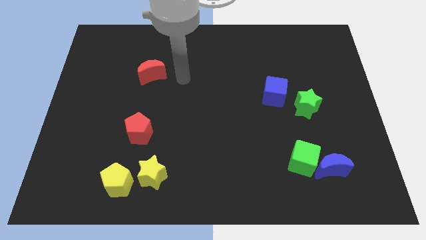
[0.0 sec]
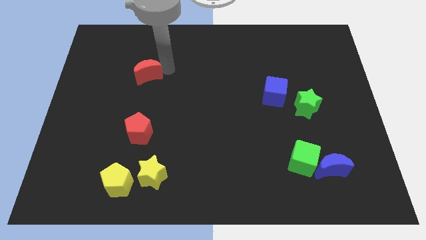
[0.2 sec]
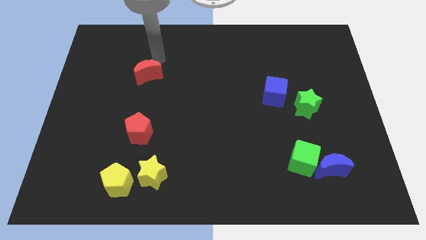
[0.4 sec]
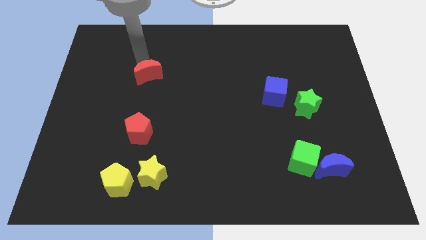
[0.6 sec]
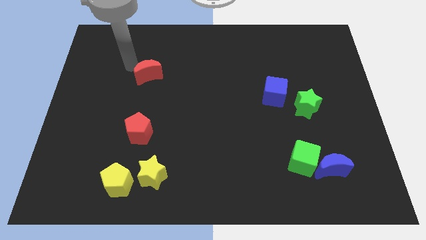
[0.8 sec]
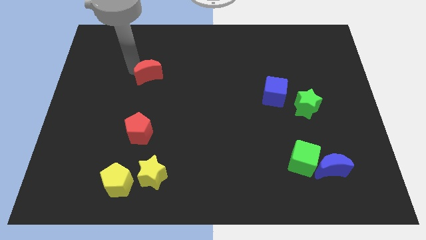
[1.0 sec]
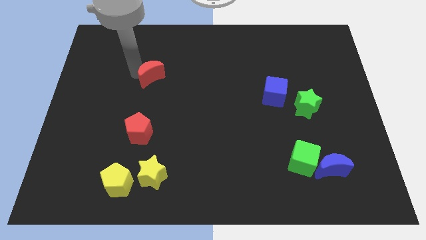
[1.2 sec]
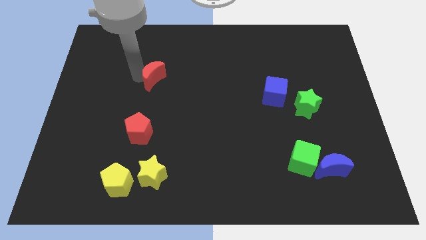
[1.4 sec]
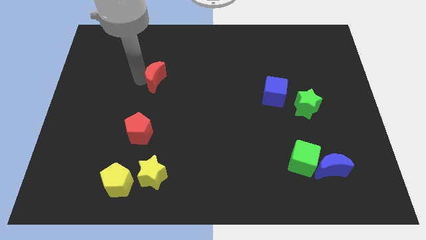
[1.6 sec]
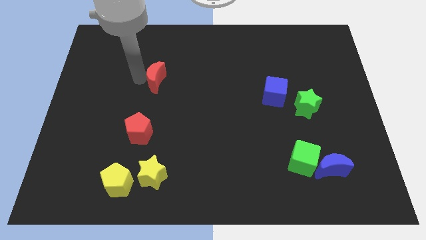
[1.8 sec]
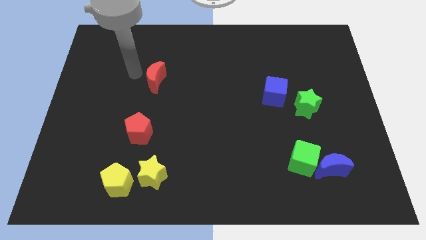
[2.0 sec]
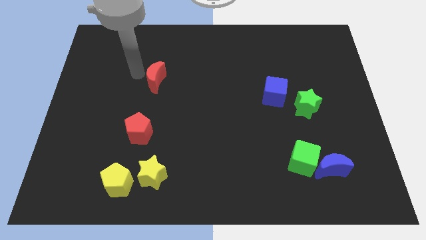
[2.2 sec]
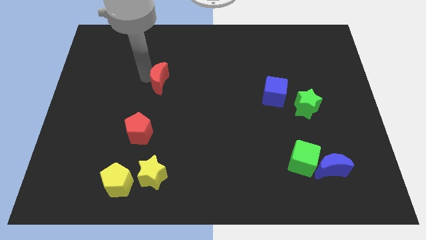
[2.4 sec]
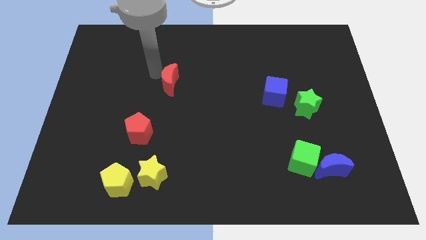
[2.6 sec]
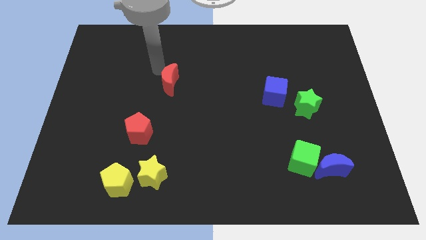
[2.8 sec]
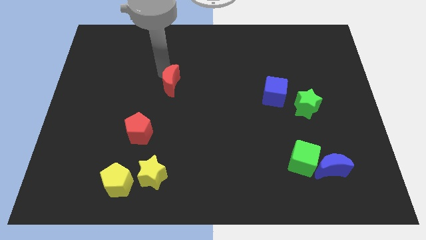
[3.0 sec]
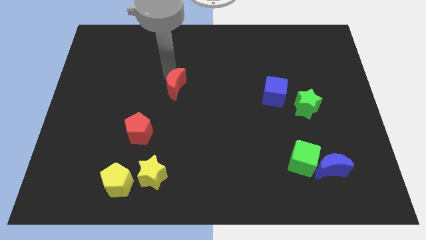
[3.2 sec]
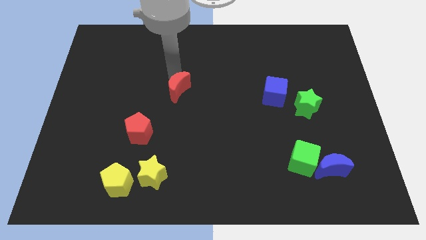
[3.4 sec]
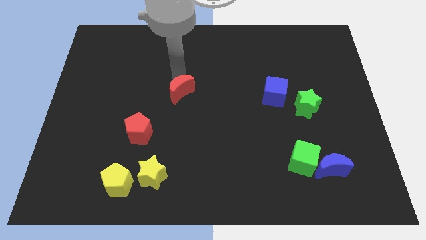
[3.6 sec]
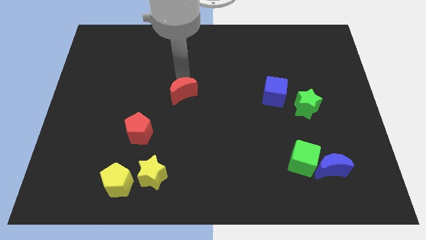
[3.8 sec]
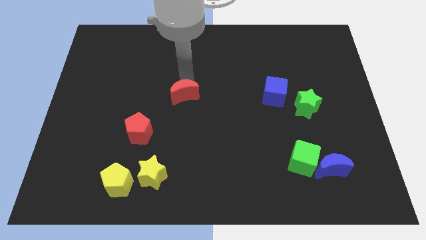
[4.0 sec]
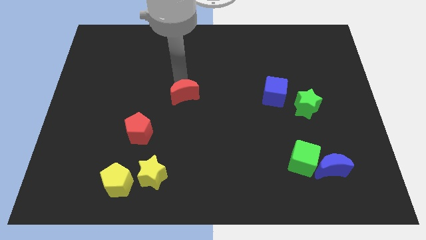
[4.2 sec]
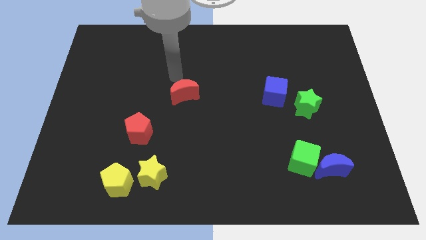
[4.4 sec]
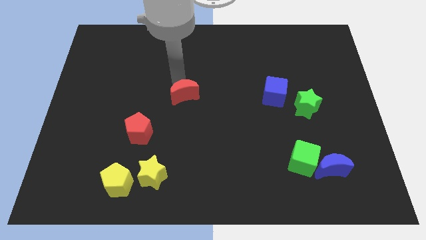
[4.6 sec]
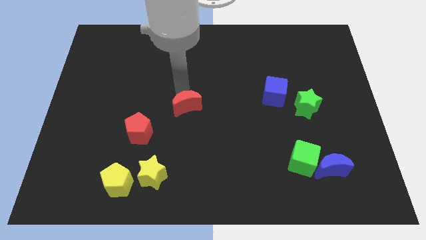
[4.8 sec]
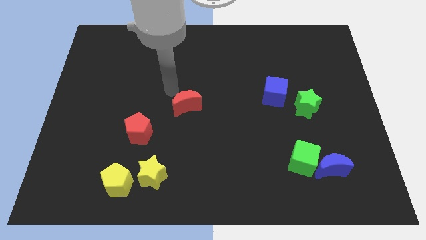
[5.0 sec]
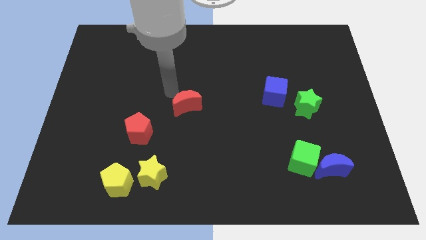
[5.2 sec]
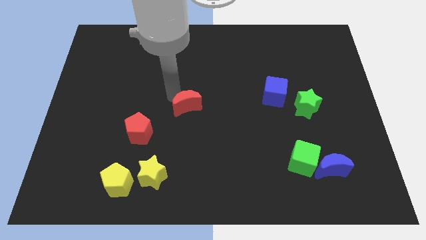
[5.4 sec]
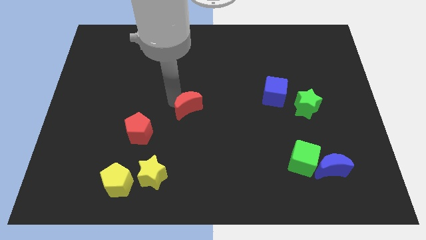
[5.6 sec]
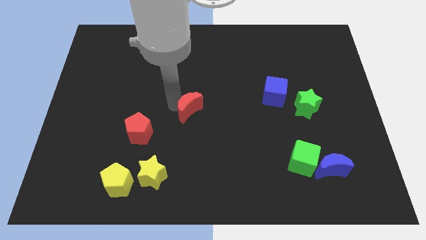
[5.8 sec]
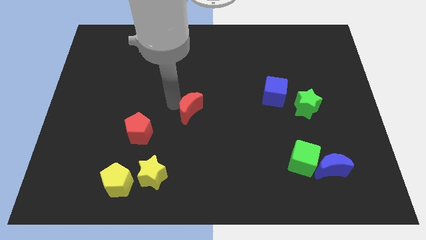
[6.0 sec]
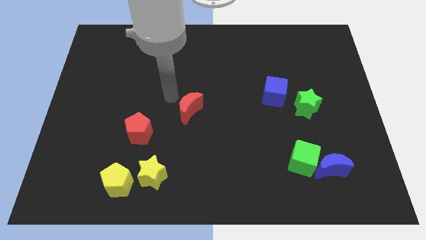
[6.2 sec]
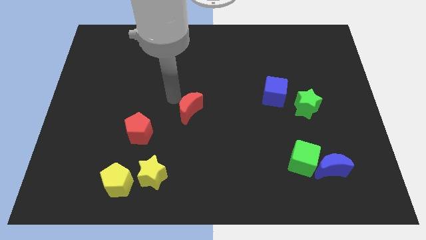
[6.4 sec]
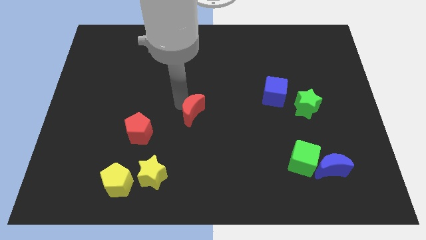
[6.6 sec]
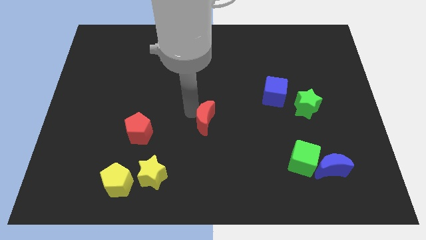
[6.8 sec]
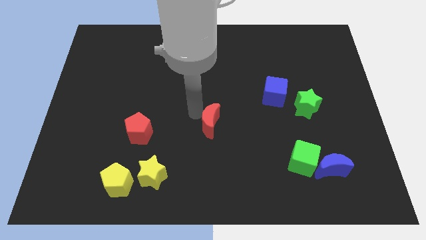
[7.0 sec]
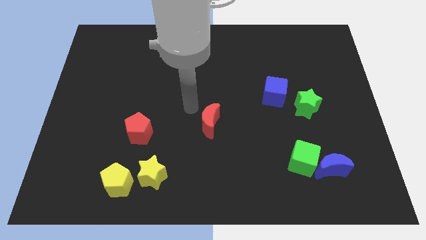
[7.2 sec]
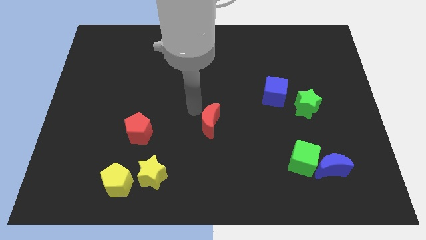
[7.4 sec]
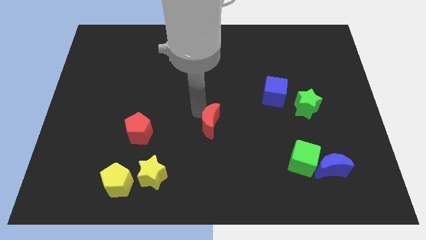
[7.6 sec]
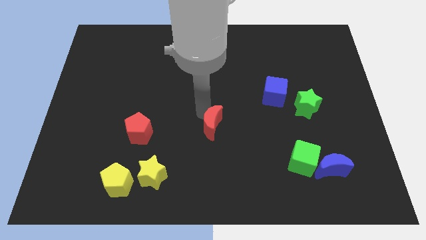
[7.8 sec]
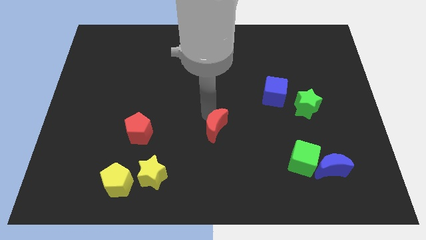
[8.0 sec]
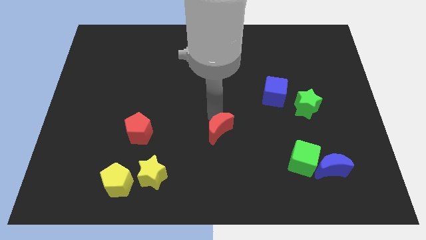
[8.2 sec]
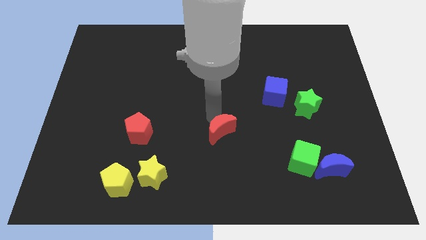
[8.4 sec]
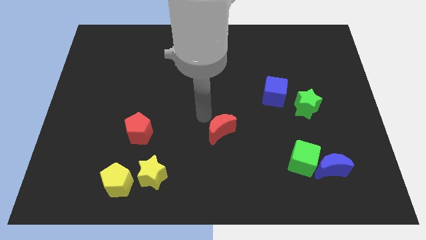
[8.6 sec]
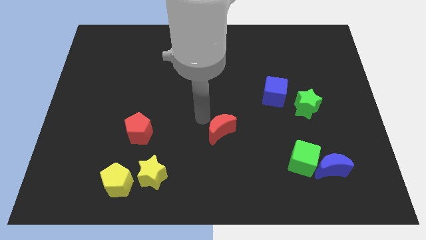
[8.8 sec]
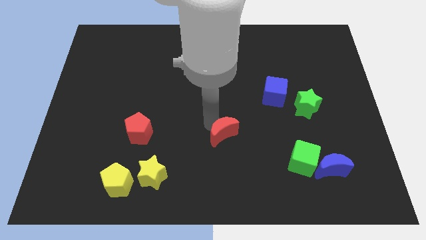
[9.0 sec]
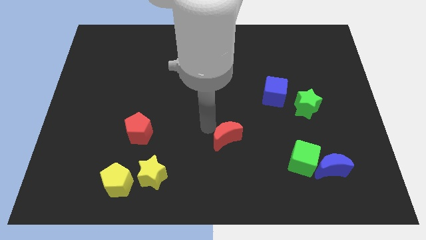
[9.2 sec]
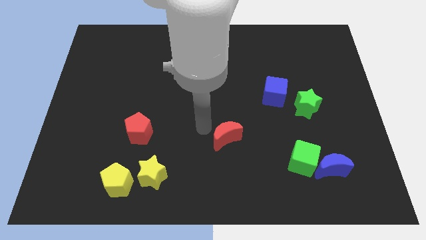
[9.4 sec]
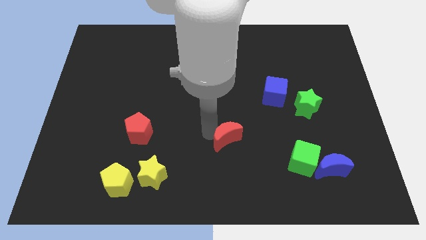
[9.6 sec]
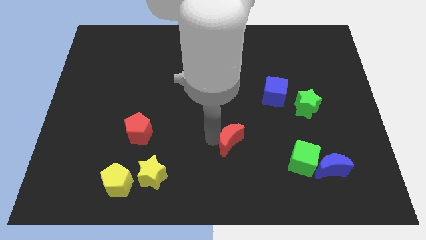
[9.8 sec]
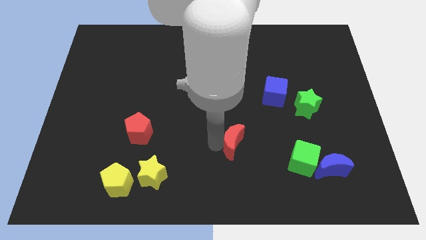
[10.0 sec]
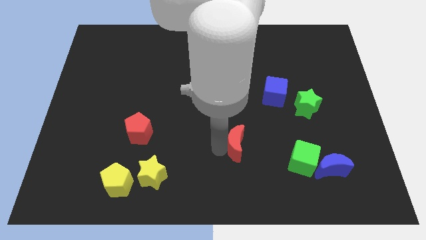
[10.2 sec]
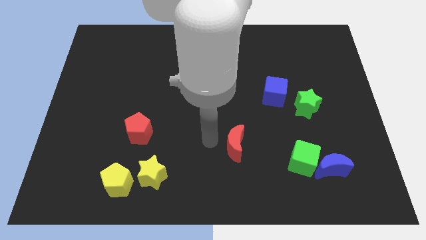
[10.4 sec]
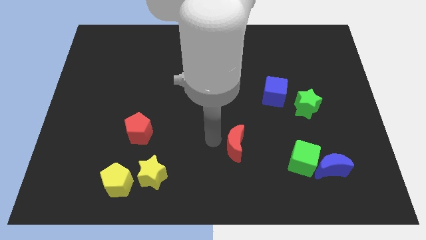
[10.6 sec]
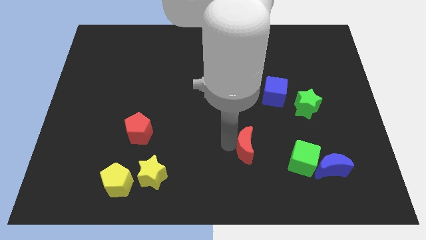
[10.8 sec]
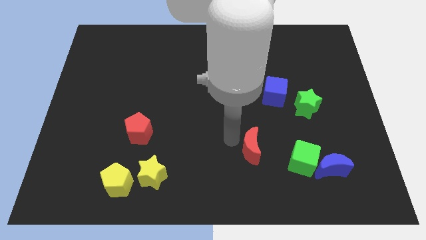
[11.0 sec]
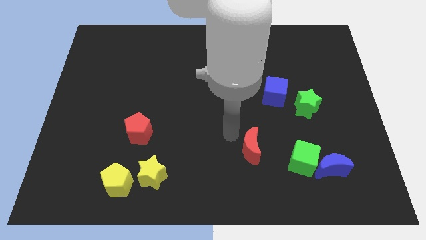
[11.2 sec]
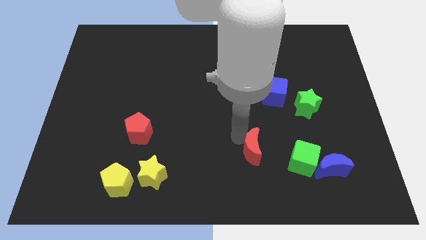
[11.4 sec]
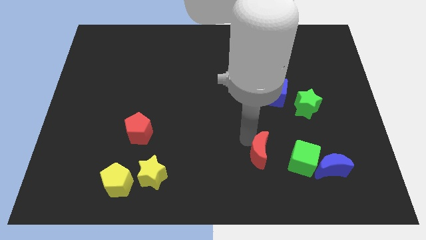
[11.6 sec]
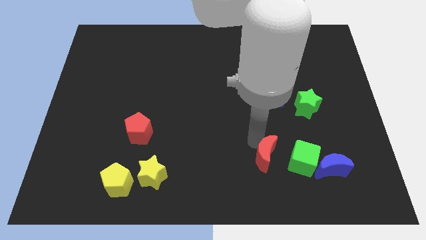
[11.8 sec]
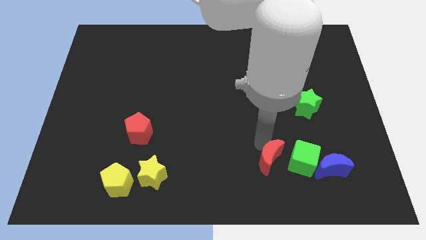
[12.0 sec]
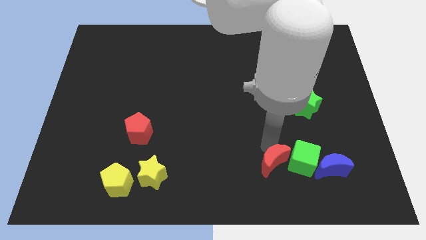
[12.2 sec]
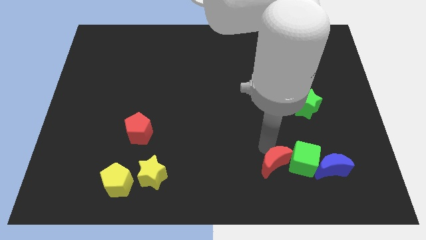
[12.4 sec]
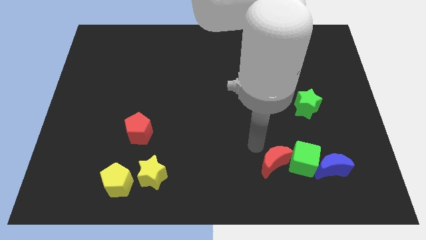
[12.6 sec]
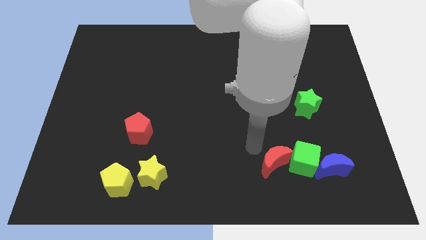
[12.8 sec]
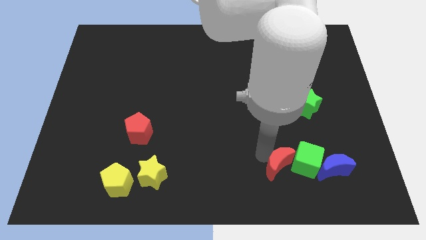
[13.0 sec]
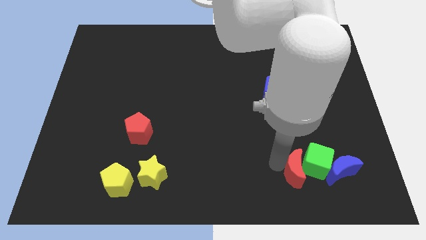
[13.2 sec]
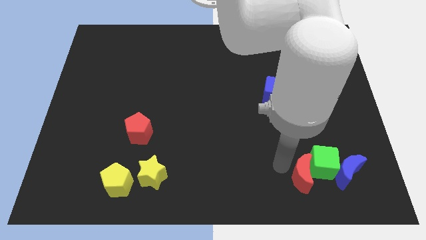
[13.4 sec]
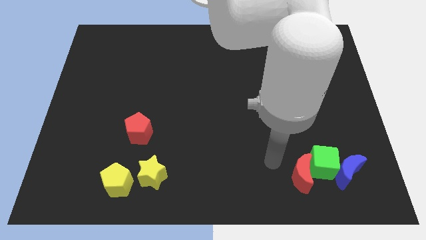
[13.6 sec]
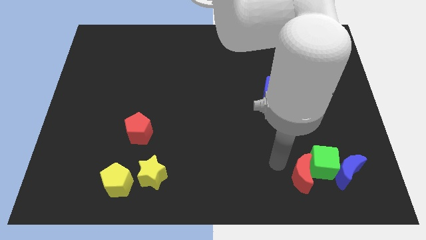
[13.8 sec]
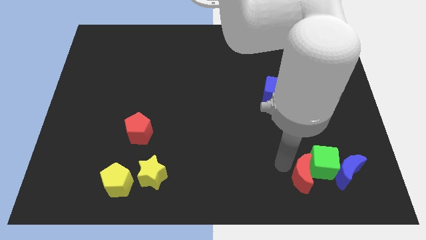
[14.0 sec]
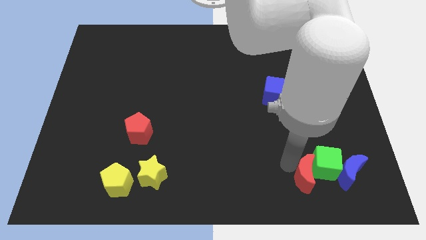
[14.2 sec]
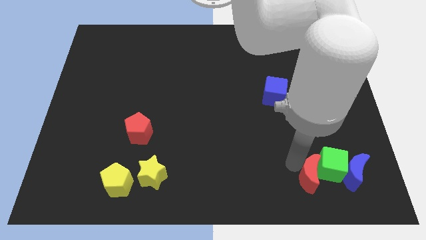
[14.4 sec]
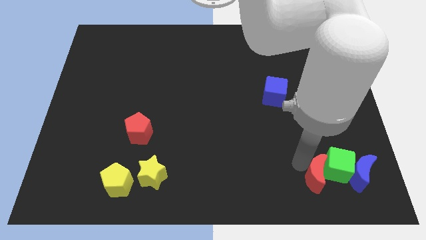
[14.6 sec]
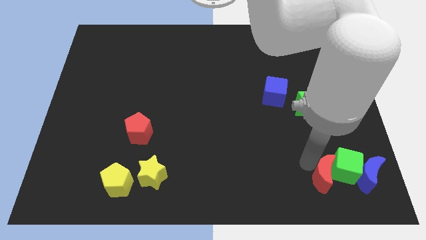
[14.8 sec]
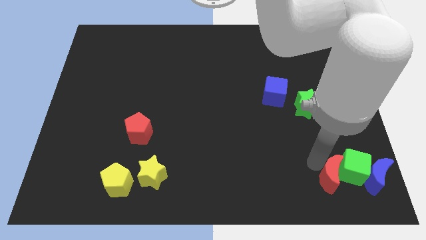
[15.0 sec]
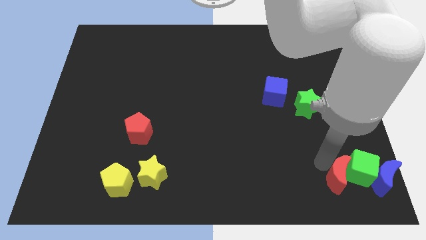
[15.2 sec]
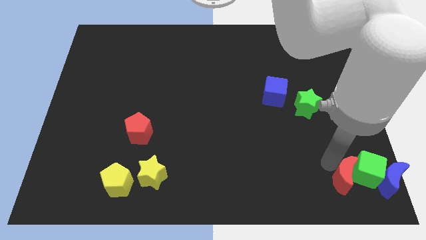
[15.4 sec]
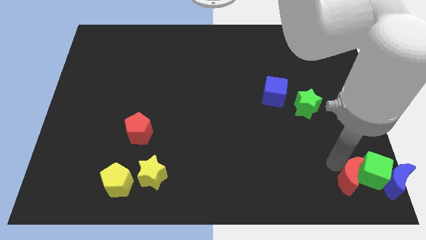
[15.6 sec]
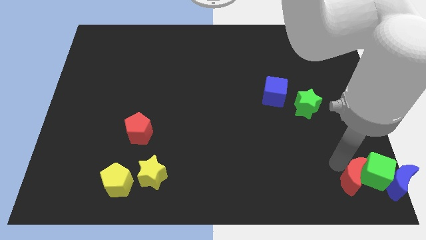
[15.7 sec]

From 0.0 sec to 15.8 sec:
push the red moon to the bottom right
